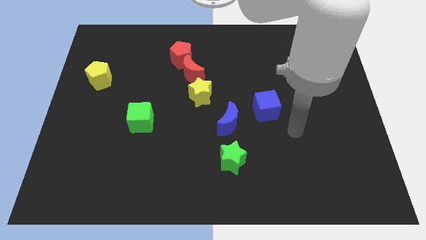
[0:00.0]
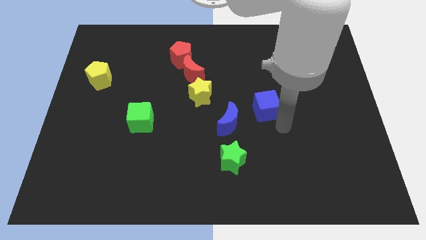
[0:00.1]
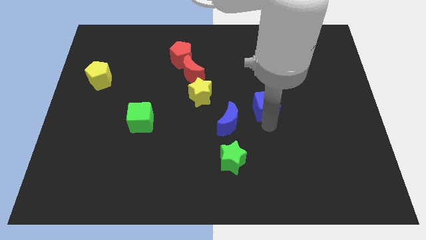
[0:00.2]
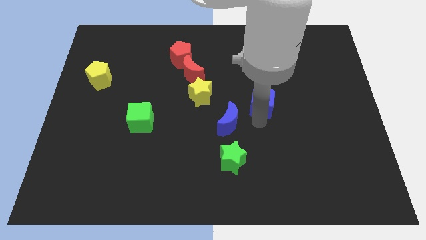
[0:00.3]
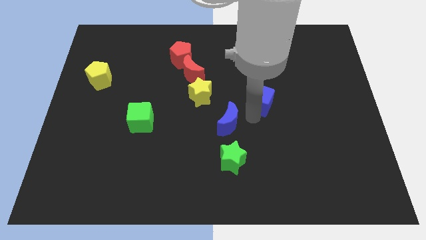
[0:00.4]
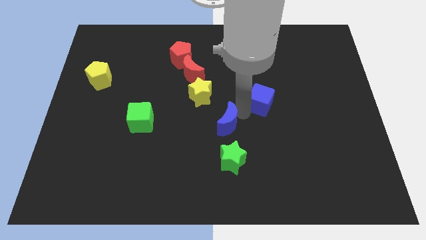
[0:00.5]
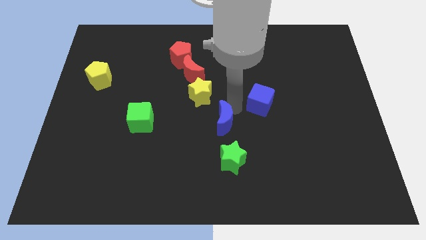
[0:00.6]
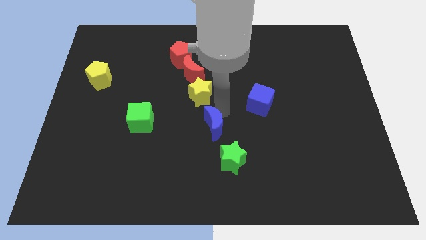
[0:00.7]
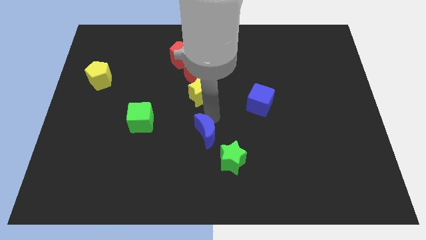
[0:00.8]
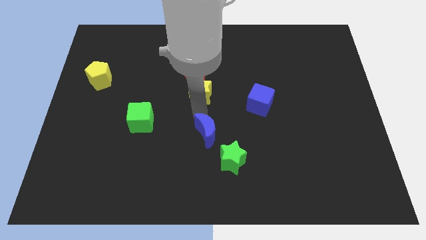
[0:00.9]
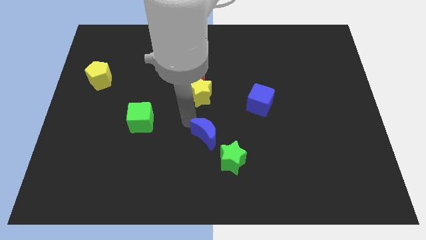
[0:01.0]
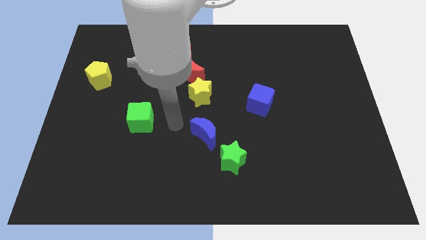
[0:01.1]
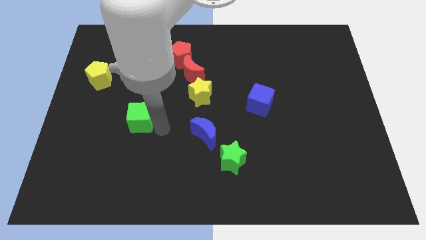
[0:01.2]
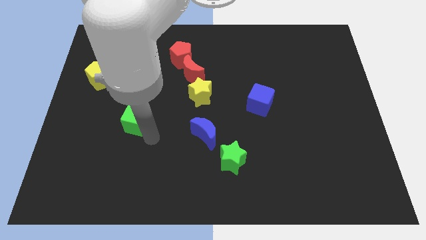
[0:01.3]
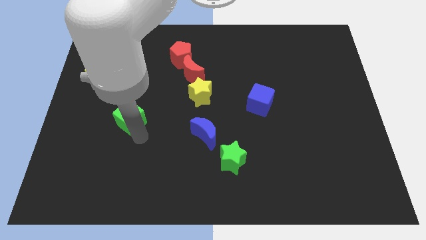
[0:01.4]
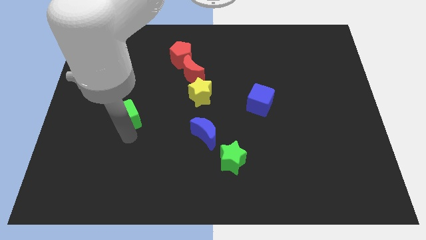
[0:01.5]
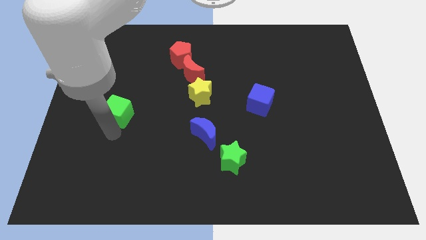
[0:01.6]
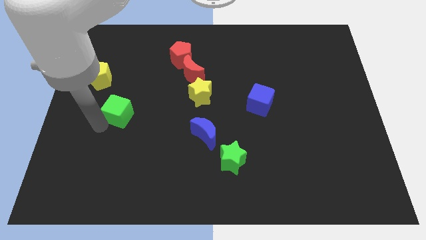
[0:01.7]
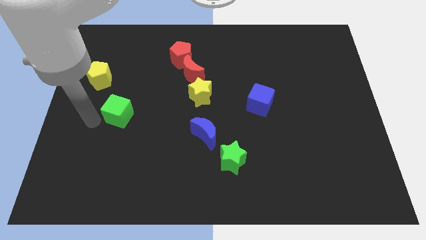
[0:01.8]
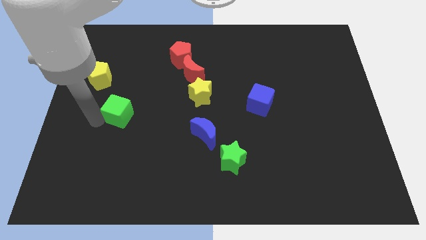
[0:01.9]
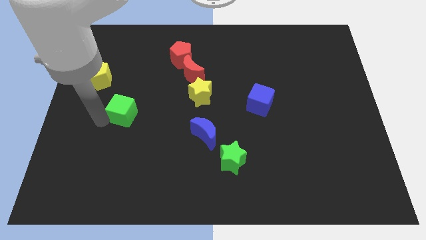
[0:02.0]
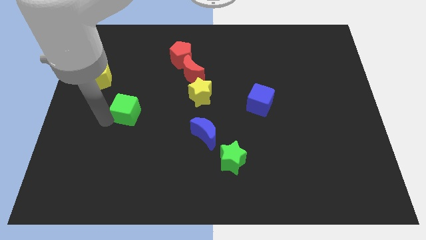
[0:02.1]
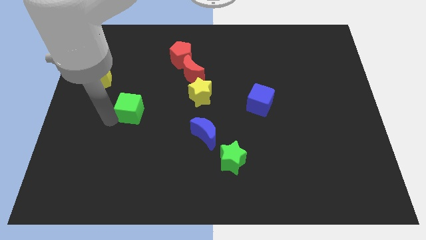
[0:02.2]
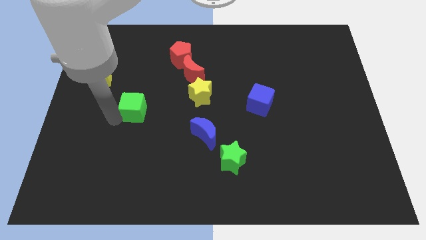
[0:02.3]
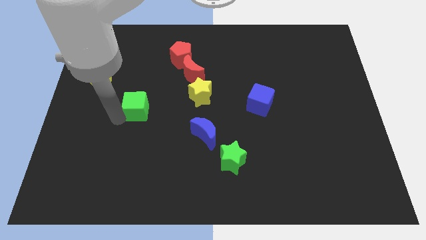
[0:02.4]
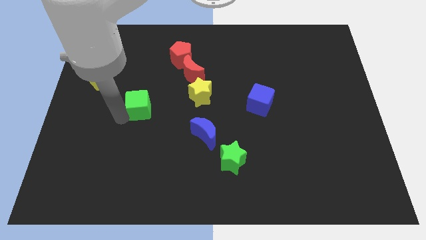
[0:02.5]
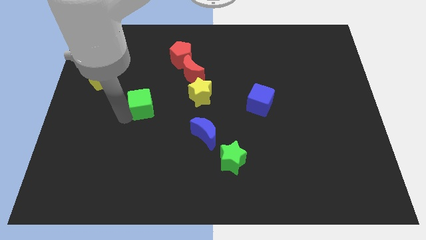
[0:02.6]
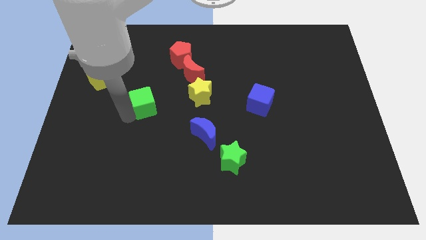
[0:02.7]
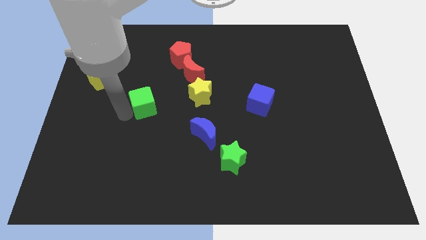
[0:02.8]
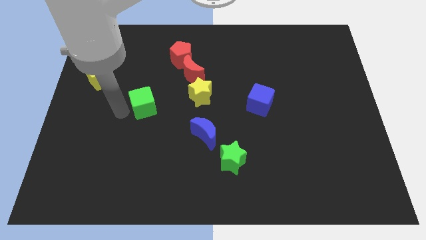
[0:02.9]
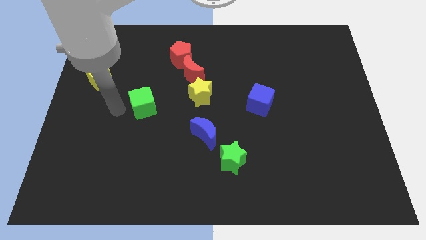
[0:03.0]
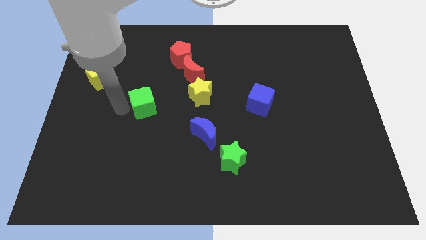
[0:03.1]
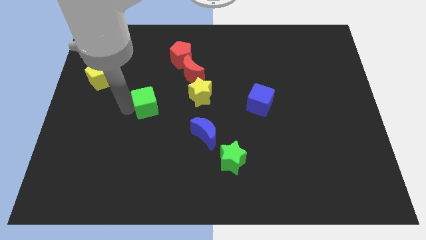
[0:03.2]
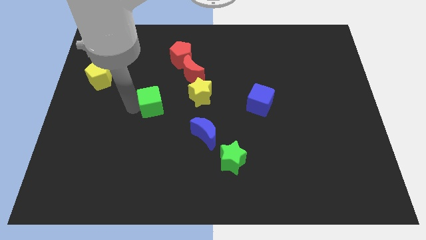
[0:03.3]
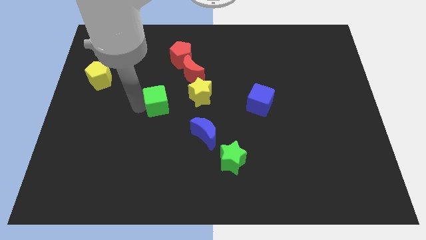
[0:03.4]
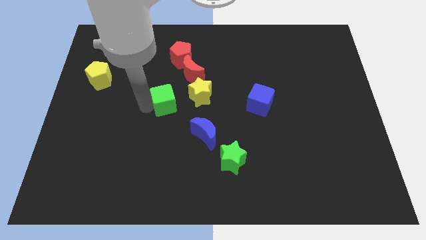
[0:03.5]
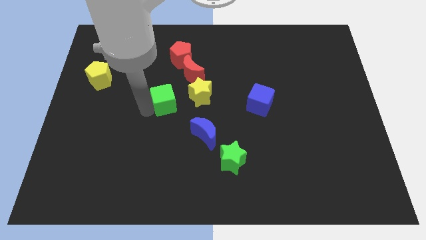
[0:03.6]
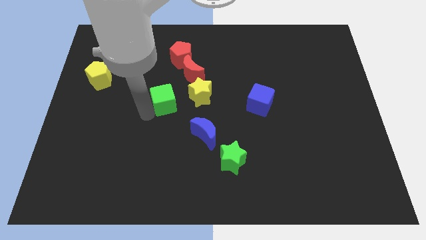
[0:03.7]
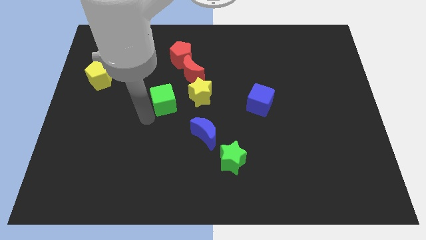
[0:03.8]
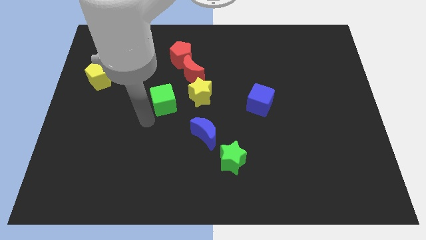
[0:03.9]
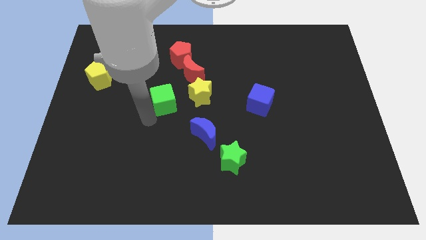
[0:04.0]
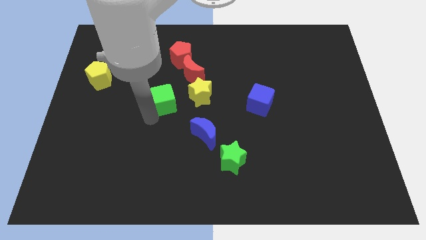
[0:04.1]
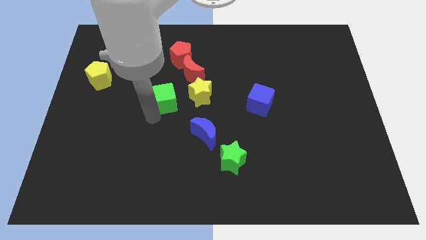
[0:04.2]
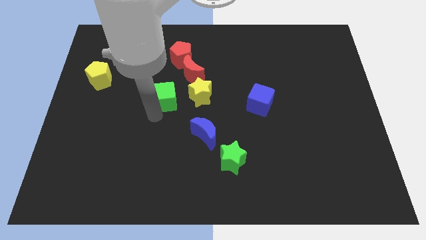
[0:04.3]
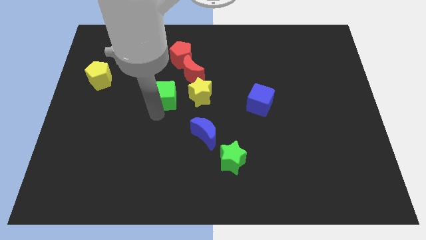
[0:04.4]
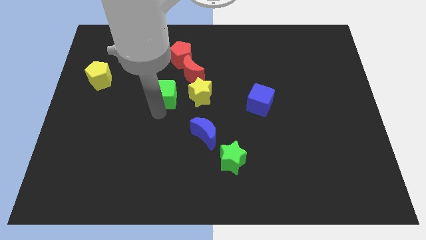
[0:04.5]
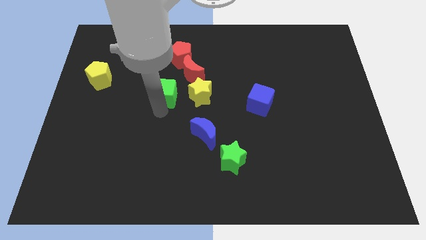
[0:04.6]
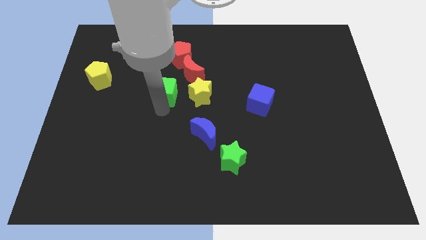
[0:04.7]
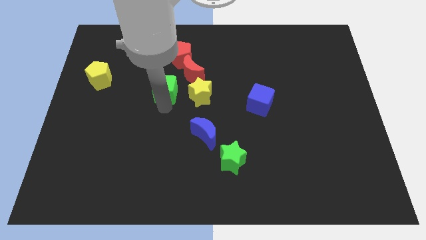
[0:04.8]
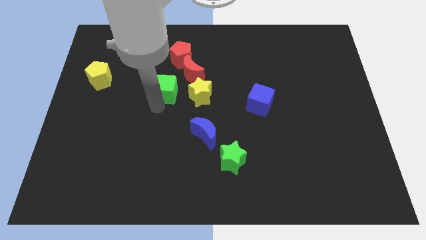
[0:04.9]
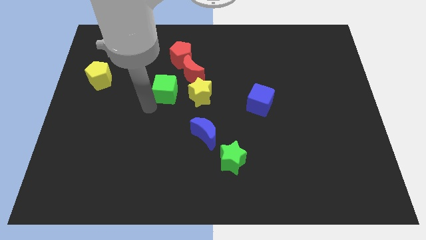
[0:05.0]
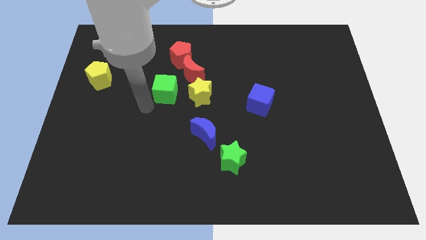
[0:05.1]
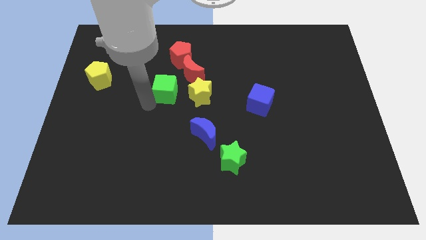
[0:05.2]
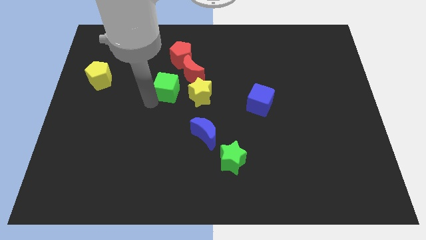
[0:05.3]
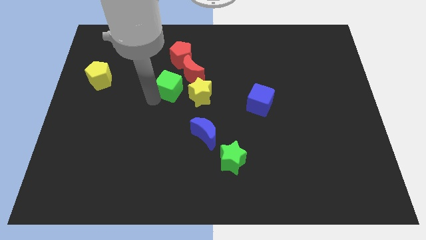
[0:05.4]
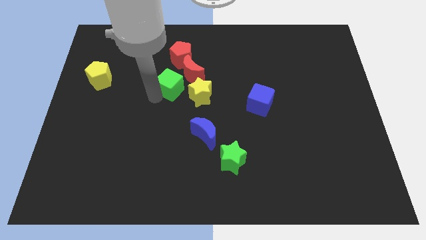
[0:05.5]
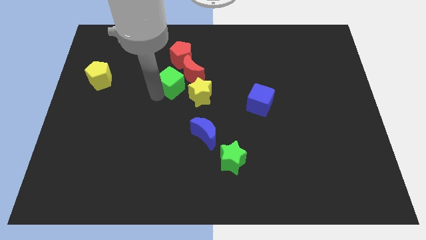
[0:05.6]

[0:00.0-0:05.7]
push the green cube towards the red moon

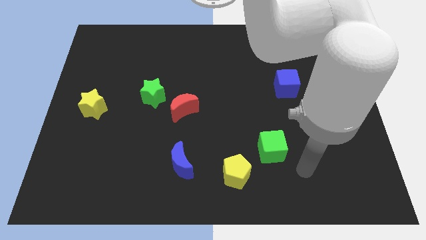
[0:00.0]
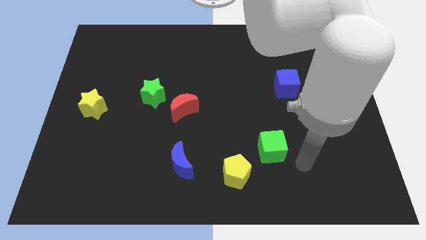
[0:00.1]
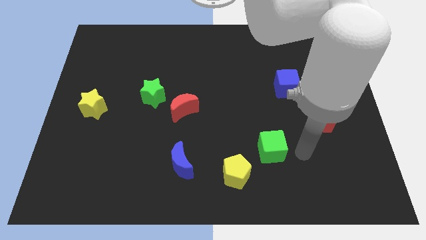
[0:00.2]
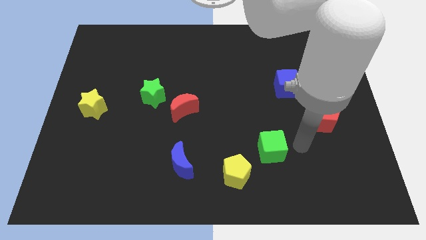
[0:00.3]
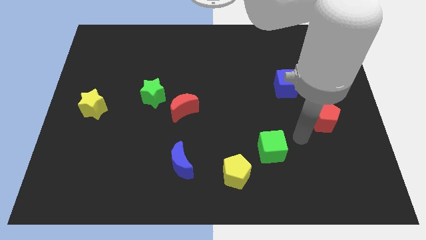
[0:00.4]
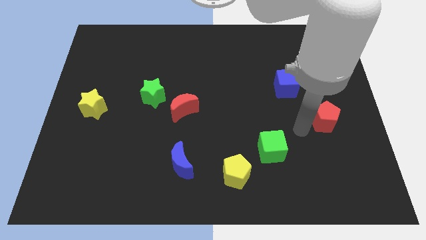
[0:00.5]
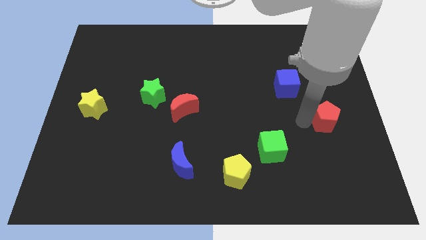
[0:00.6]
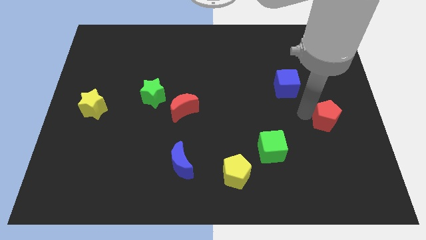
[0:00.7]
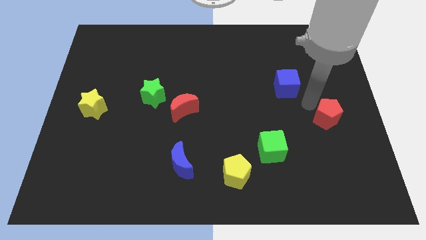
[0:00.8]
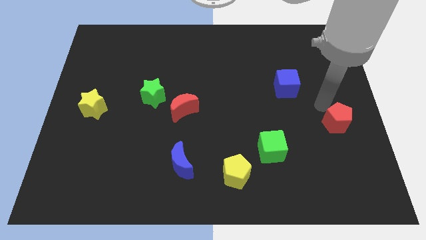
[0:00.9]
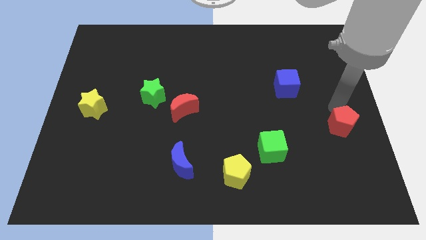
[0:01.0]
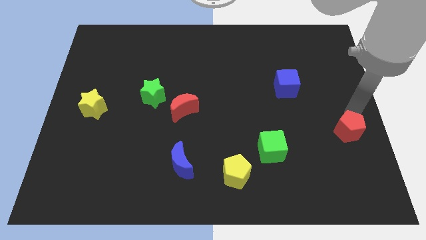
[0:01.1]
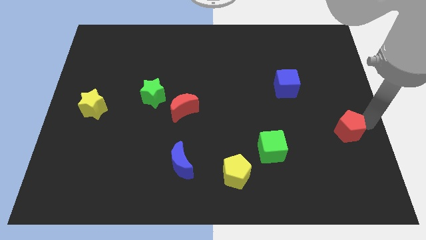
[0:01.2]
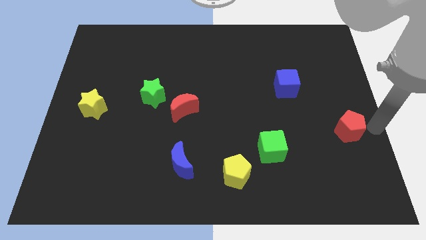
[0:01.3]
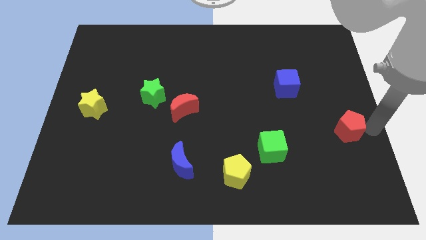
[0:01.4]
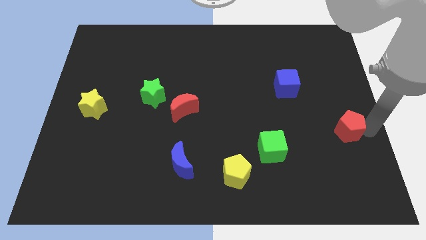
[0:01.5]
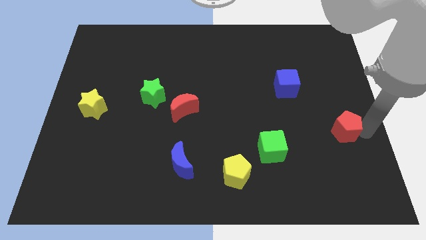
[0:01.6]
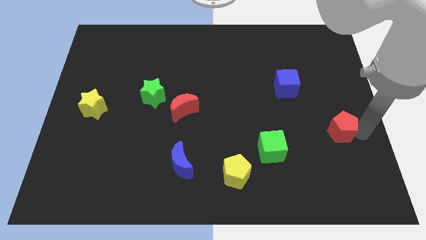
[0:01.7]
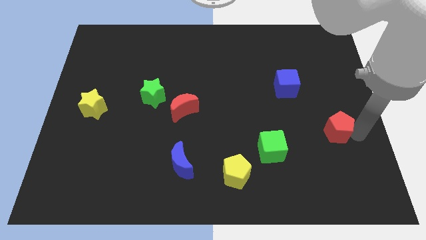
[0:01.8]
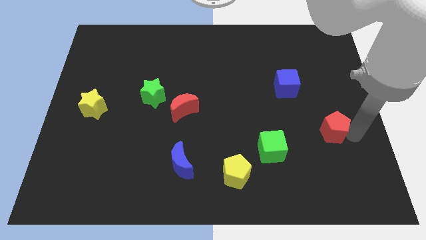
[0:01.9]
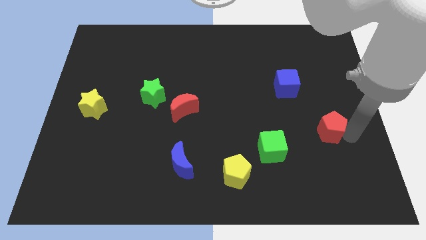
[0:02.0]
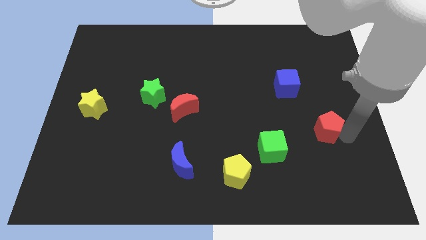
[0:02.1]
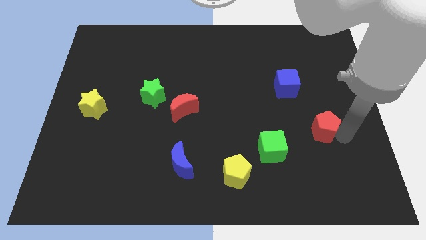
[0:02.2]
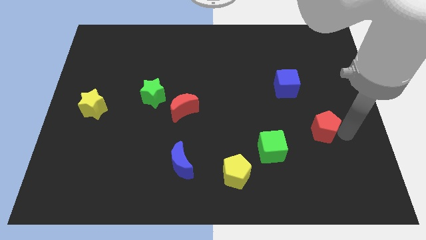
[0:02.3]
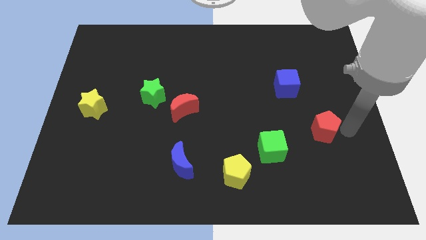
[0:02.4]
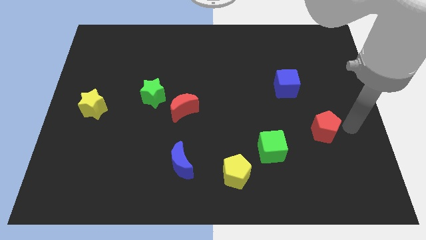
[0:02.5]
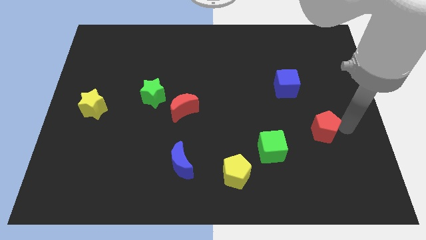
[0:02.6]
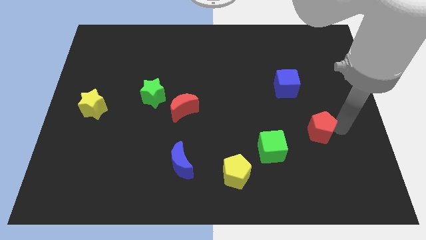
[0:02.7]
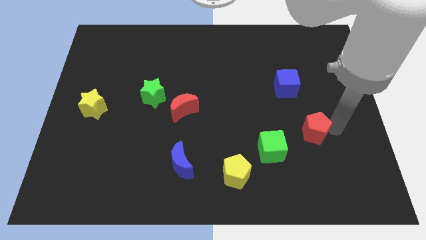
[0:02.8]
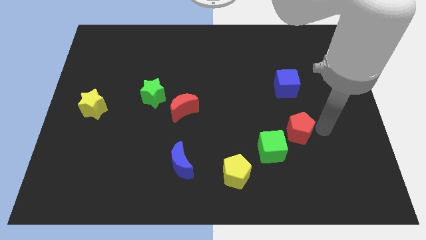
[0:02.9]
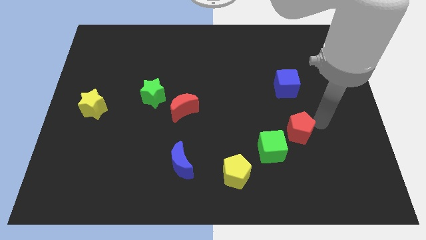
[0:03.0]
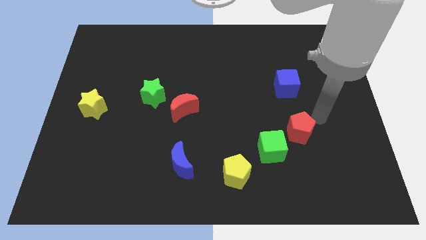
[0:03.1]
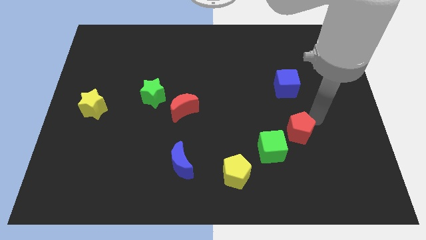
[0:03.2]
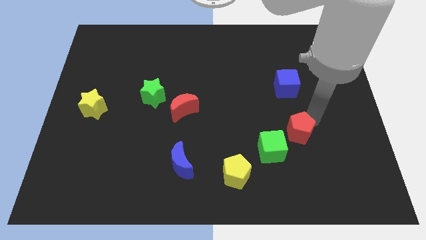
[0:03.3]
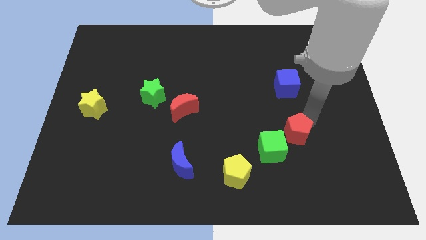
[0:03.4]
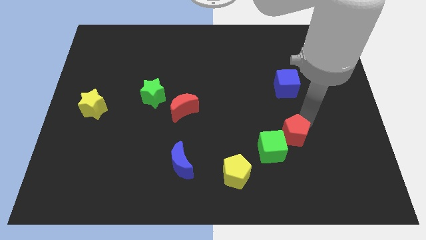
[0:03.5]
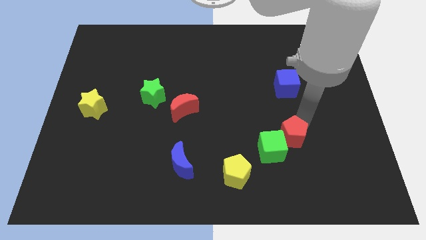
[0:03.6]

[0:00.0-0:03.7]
put the red pentagon to the green cube
